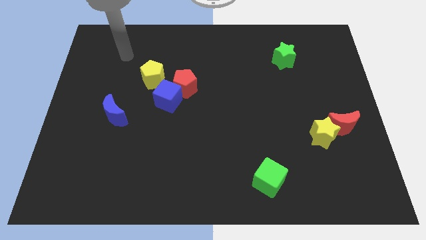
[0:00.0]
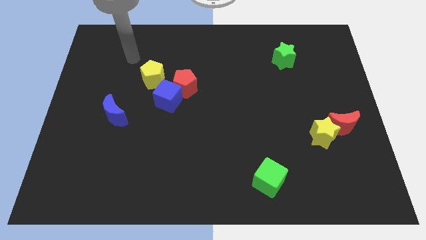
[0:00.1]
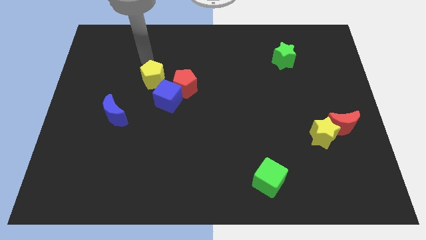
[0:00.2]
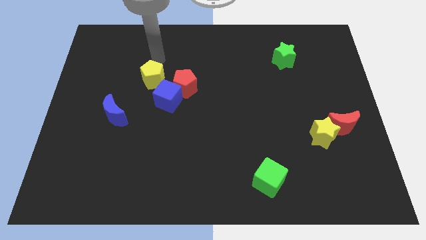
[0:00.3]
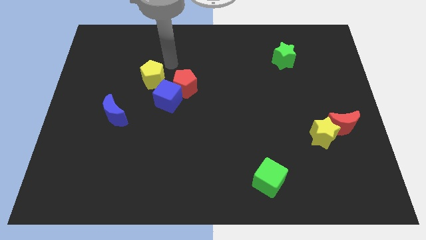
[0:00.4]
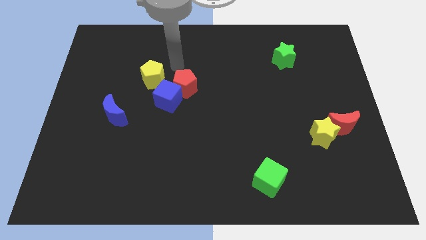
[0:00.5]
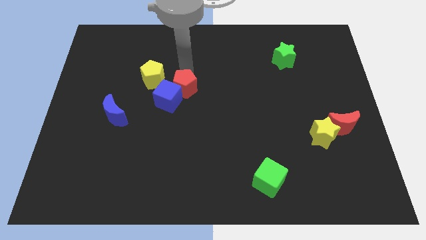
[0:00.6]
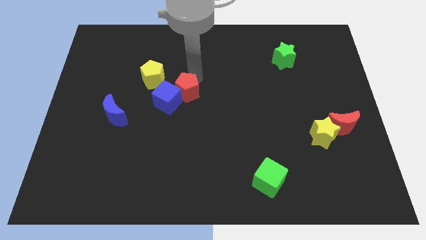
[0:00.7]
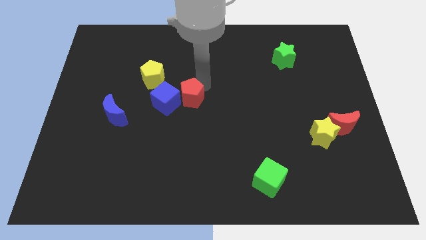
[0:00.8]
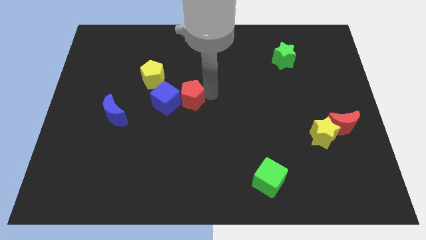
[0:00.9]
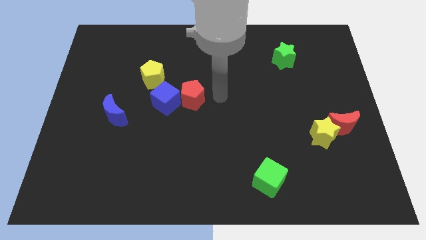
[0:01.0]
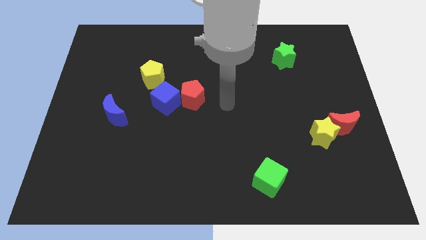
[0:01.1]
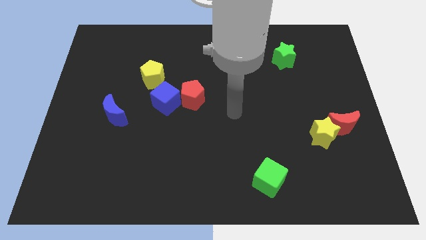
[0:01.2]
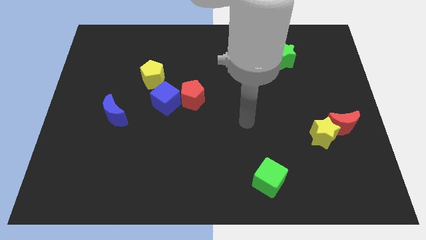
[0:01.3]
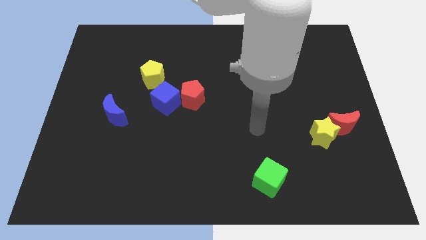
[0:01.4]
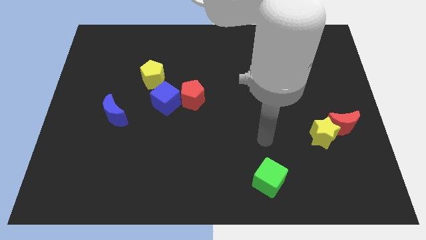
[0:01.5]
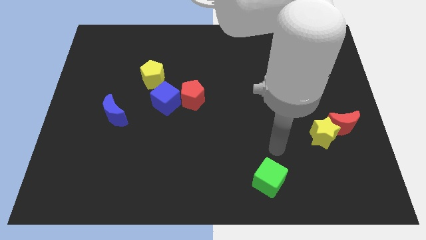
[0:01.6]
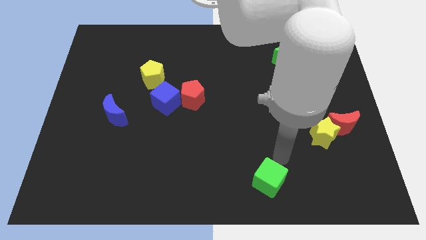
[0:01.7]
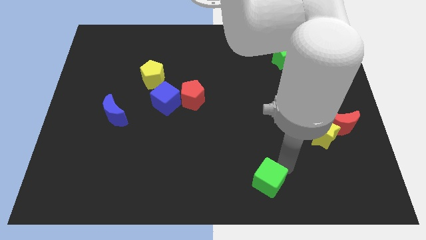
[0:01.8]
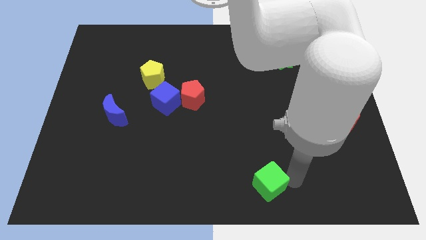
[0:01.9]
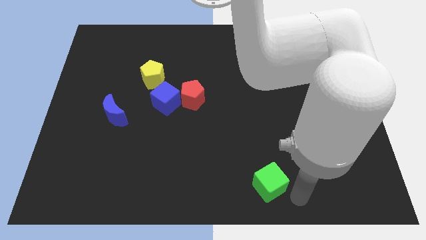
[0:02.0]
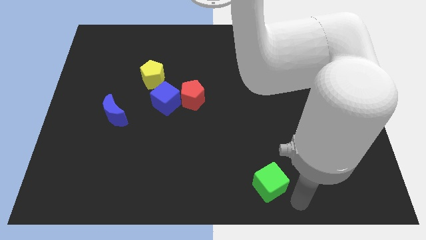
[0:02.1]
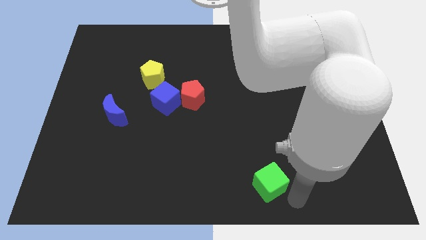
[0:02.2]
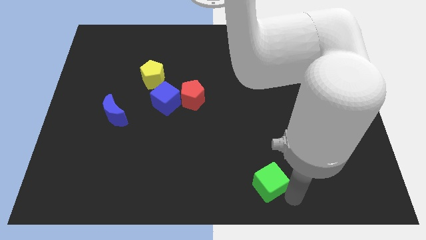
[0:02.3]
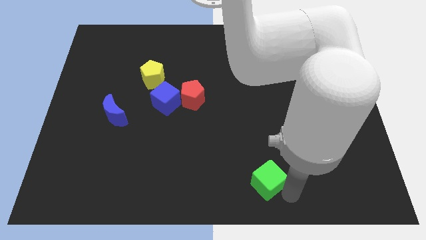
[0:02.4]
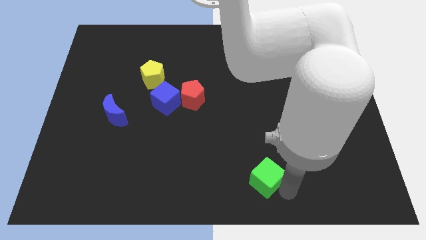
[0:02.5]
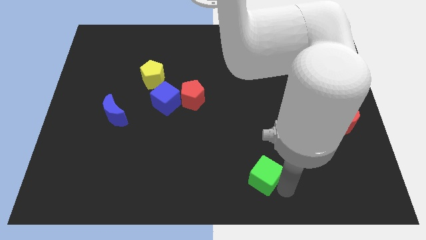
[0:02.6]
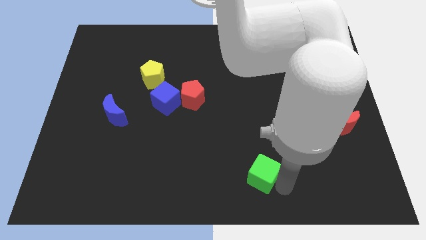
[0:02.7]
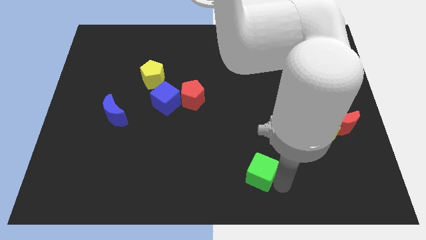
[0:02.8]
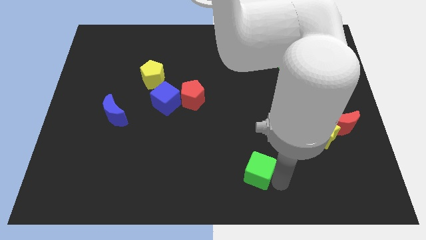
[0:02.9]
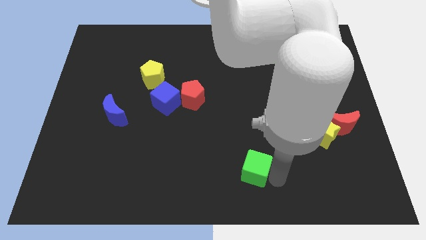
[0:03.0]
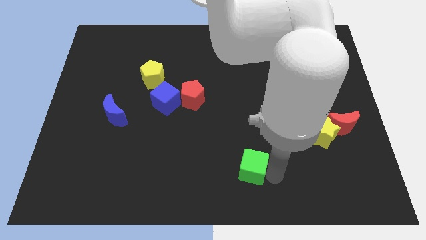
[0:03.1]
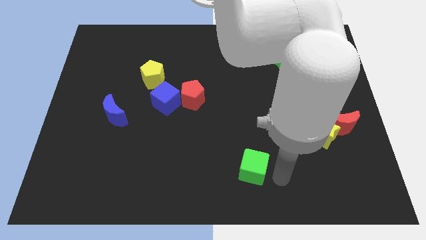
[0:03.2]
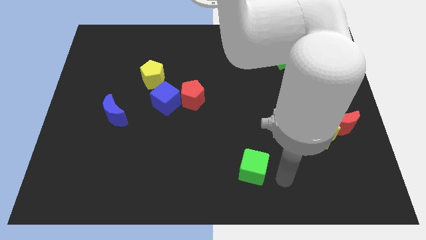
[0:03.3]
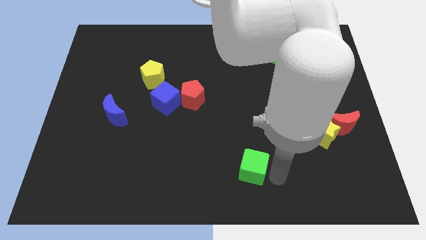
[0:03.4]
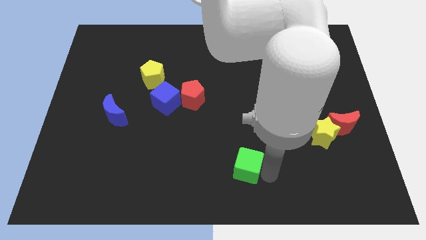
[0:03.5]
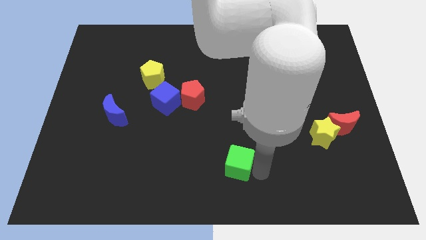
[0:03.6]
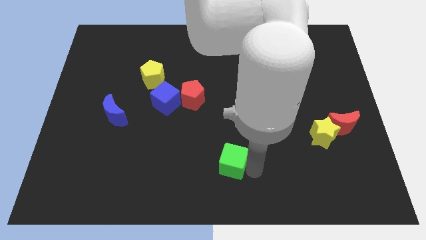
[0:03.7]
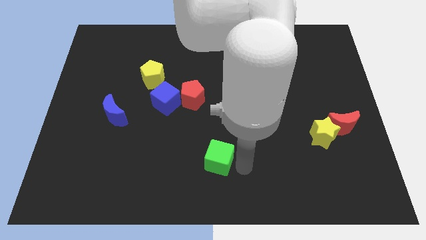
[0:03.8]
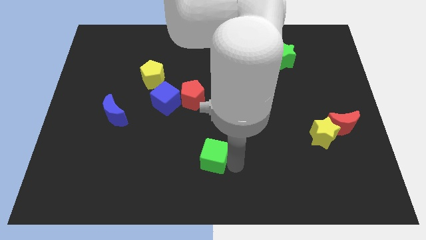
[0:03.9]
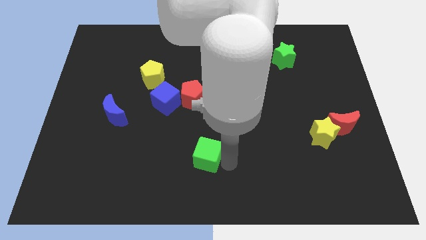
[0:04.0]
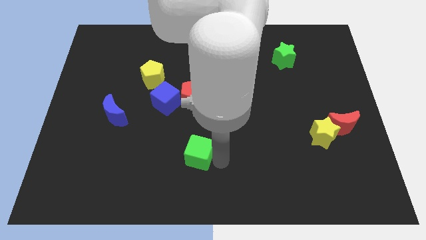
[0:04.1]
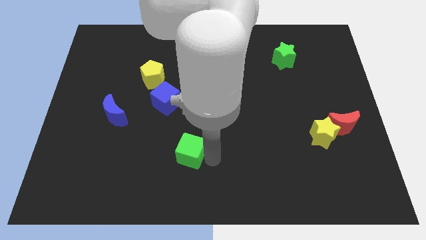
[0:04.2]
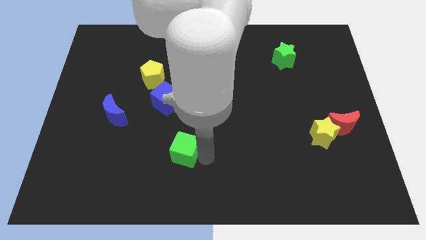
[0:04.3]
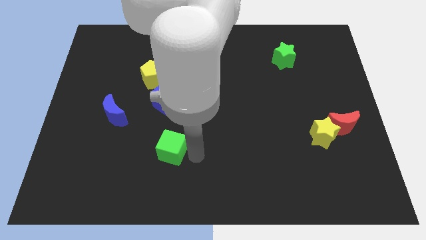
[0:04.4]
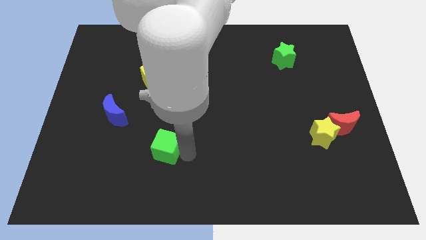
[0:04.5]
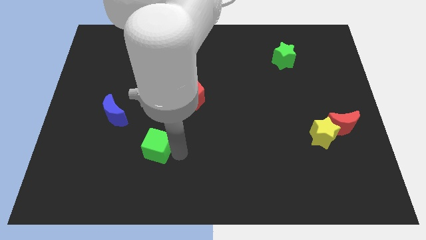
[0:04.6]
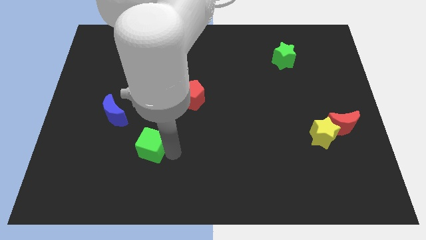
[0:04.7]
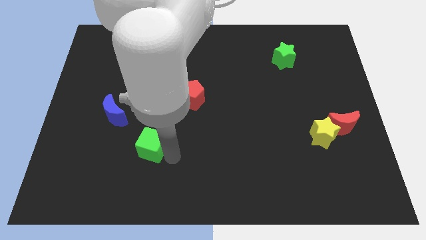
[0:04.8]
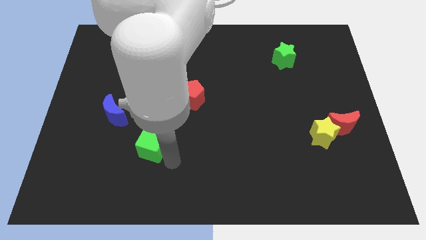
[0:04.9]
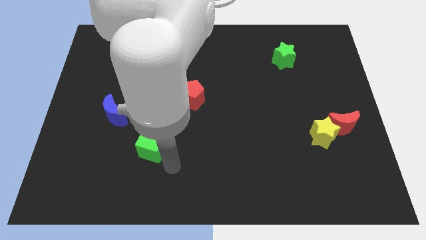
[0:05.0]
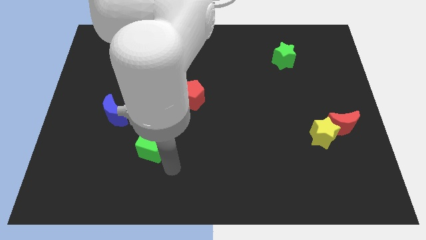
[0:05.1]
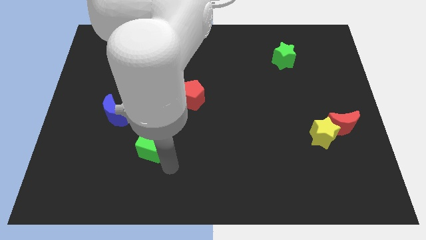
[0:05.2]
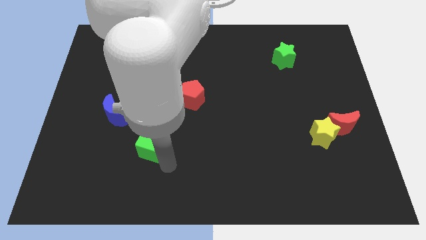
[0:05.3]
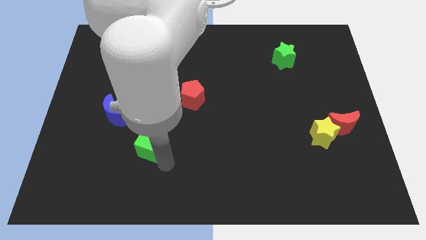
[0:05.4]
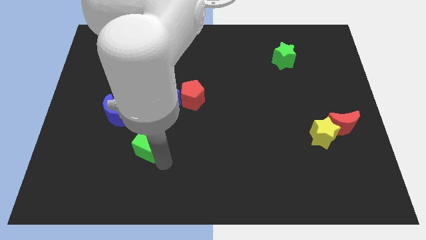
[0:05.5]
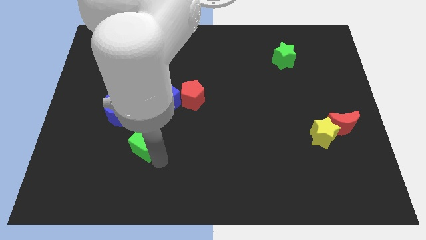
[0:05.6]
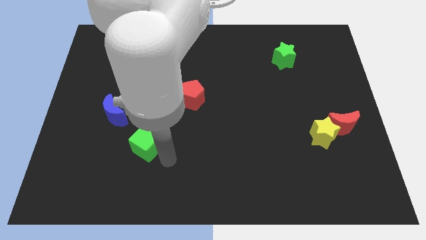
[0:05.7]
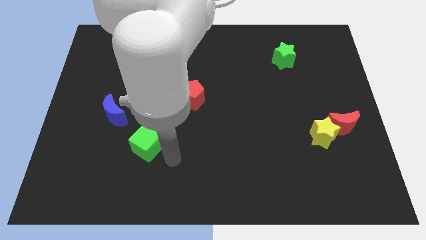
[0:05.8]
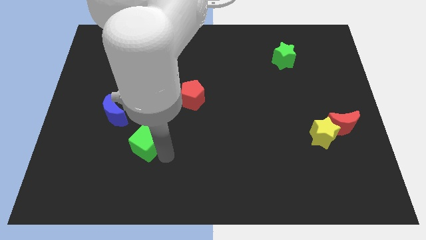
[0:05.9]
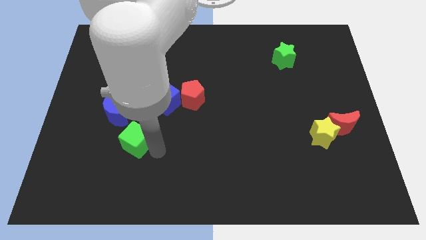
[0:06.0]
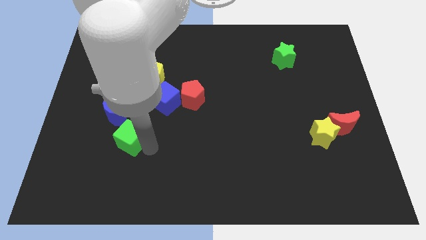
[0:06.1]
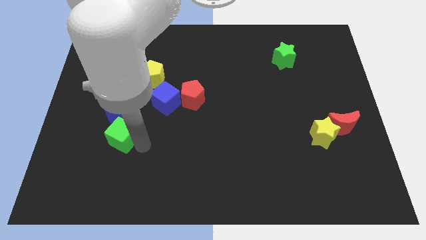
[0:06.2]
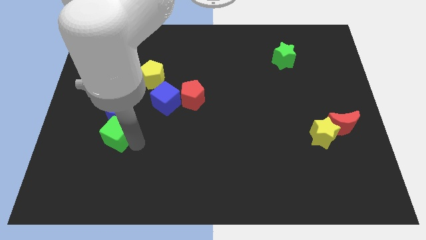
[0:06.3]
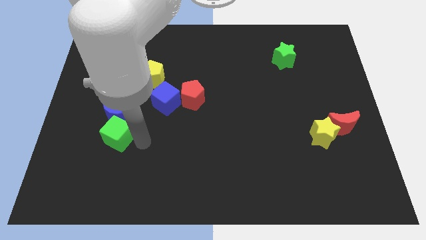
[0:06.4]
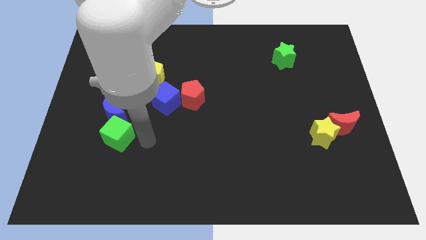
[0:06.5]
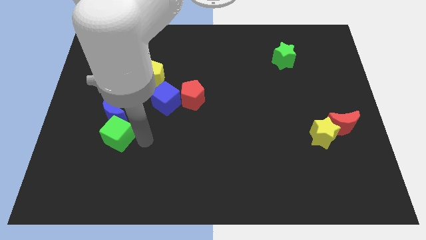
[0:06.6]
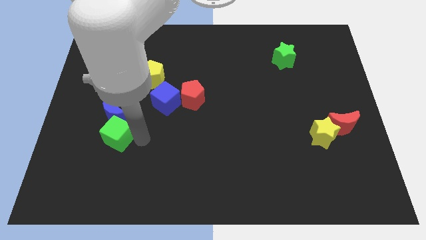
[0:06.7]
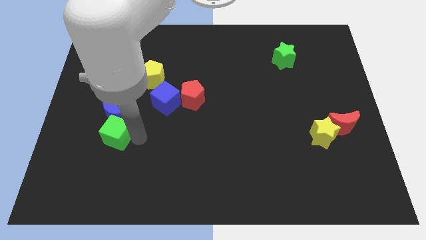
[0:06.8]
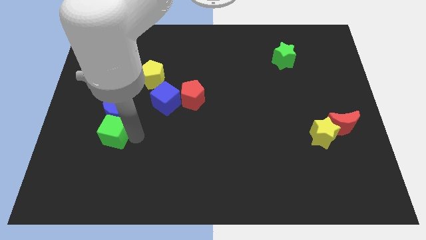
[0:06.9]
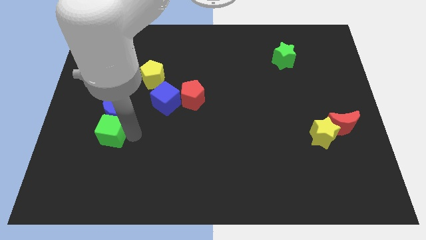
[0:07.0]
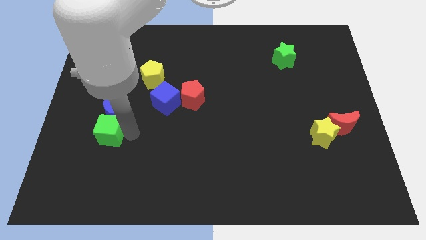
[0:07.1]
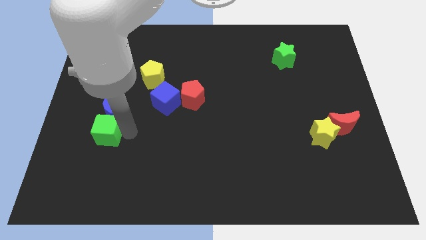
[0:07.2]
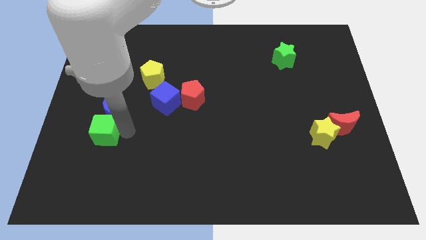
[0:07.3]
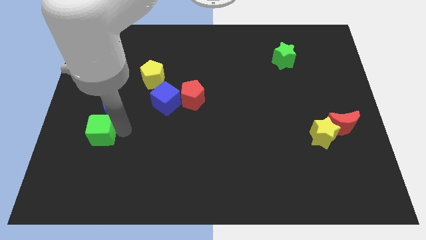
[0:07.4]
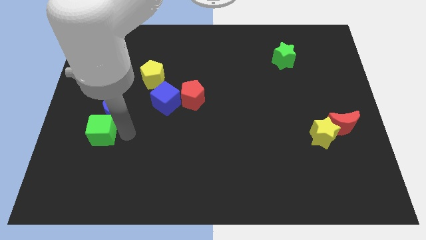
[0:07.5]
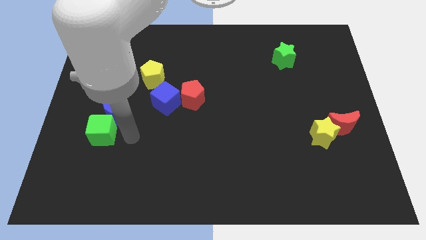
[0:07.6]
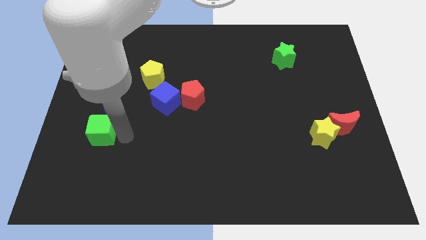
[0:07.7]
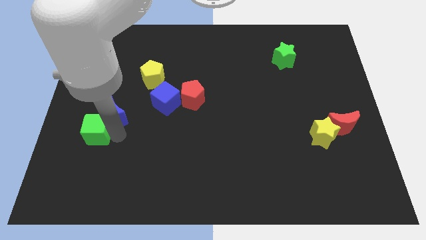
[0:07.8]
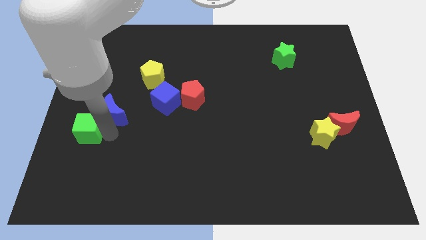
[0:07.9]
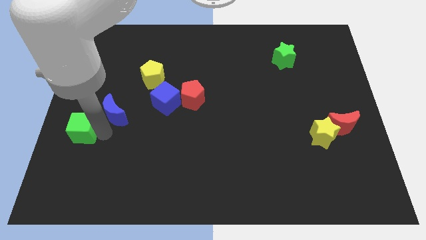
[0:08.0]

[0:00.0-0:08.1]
put the green cube to the left side

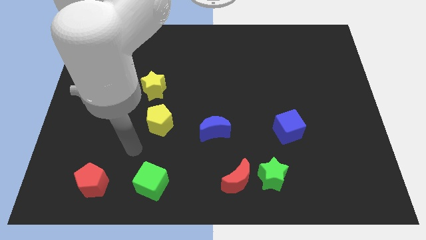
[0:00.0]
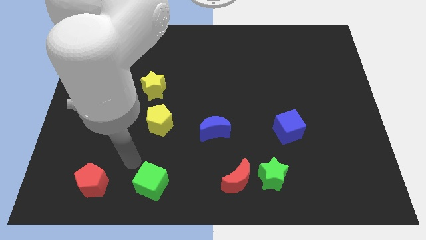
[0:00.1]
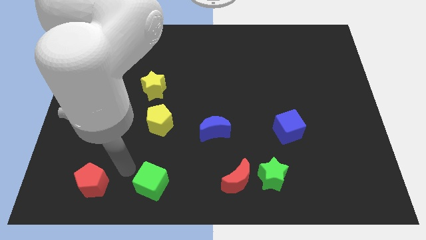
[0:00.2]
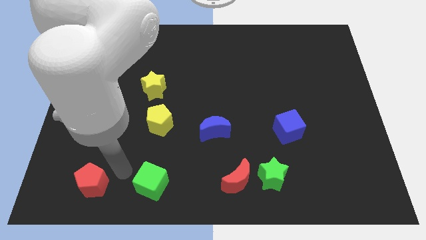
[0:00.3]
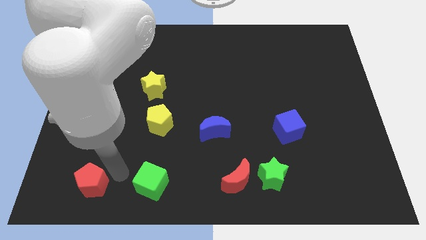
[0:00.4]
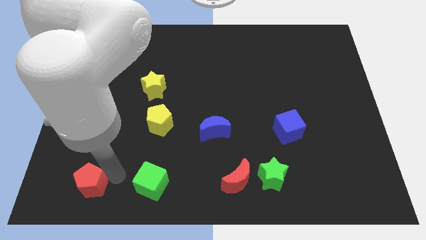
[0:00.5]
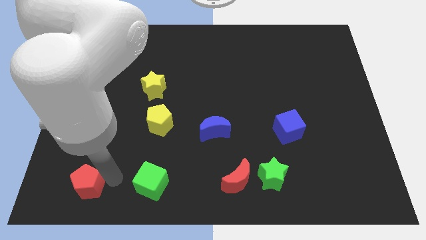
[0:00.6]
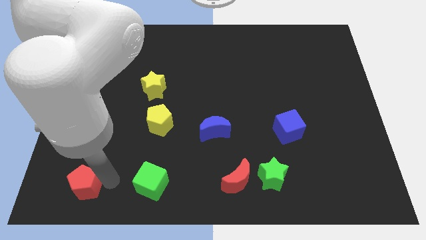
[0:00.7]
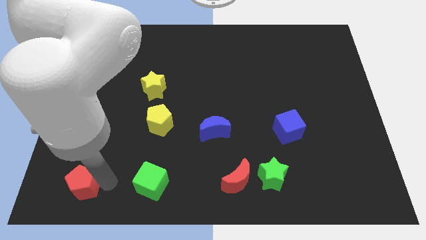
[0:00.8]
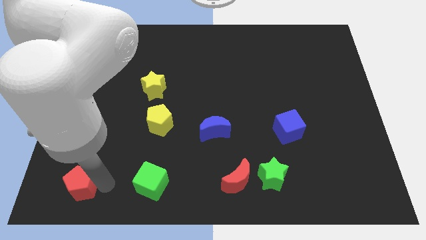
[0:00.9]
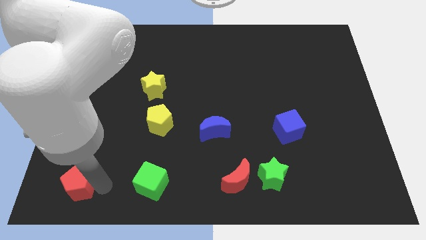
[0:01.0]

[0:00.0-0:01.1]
move the red pentagon to the lower left corner
